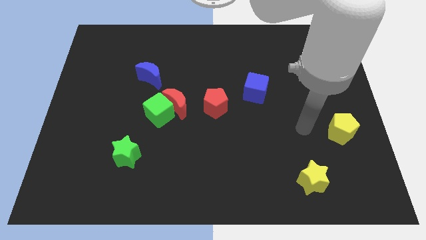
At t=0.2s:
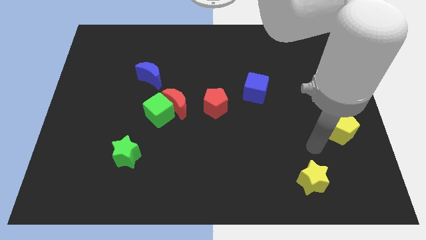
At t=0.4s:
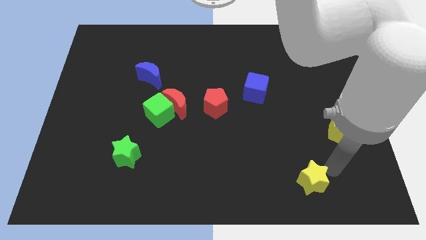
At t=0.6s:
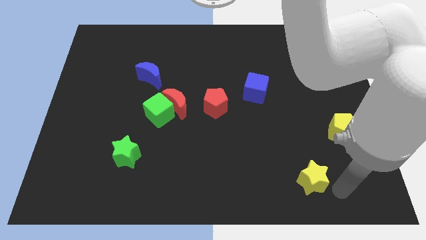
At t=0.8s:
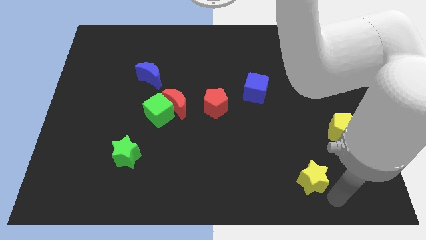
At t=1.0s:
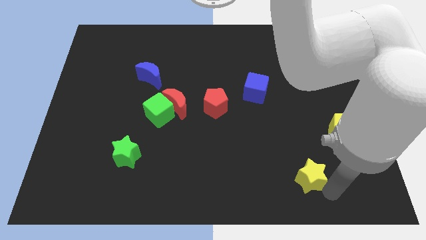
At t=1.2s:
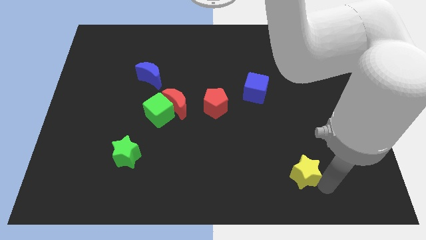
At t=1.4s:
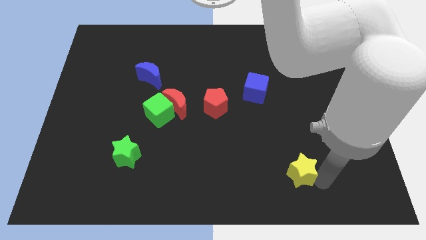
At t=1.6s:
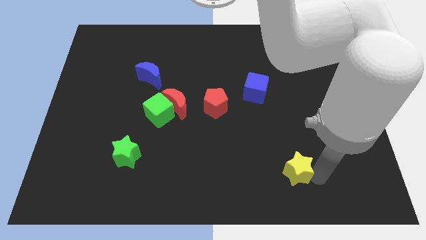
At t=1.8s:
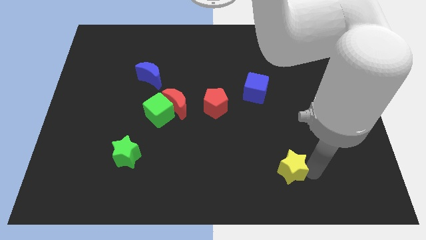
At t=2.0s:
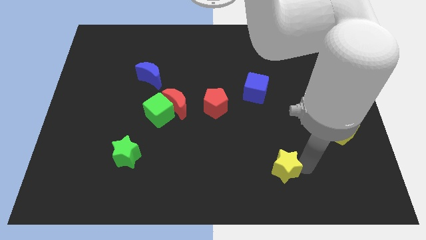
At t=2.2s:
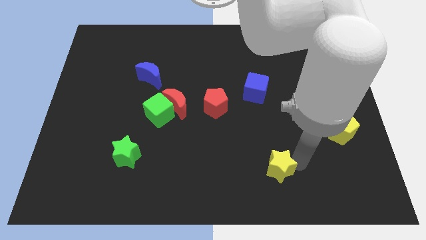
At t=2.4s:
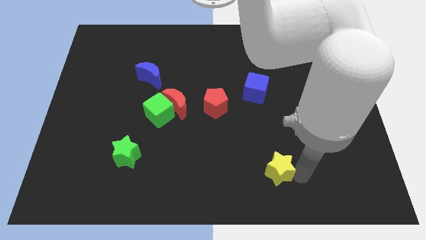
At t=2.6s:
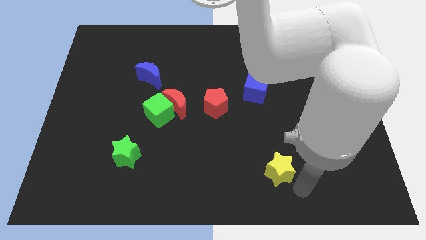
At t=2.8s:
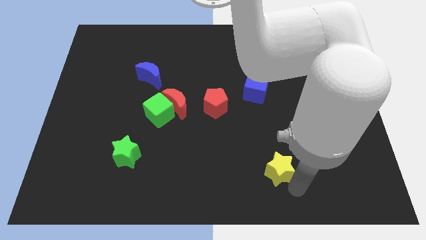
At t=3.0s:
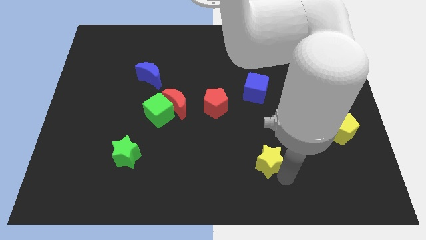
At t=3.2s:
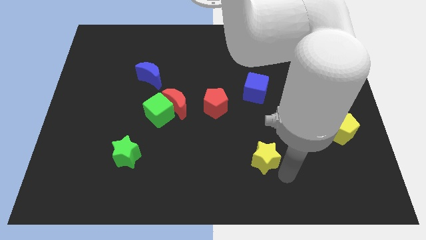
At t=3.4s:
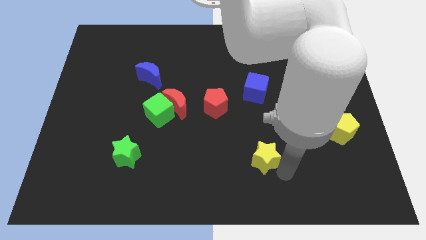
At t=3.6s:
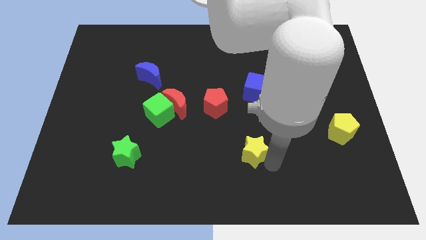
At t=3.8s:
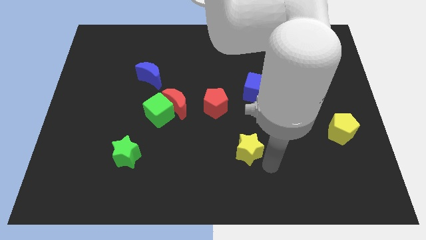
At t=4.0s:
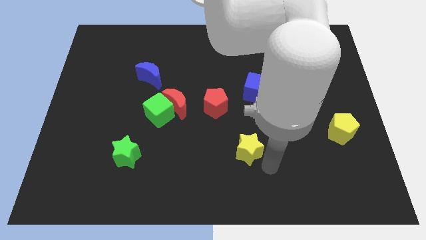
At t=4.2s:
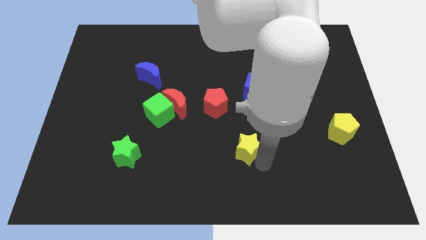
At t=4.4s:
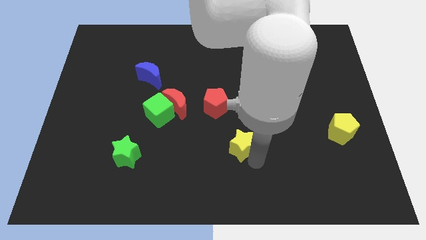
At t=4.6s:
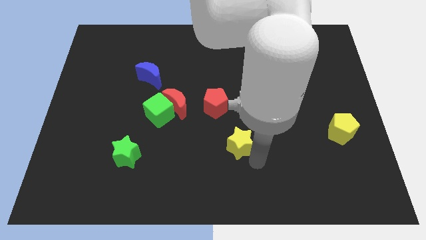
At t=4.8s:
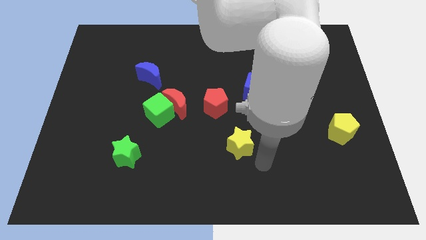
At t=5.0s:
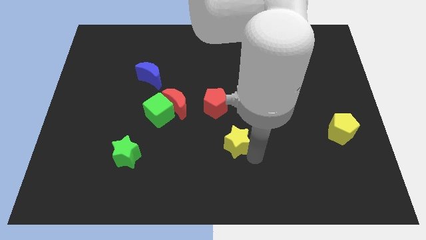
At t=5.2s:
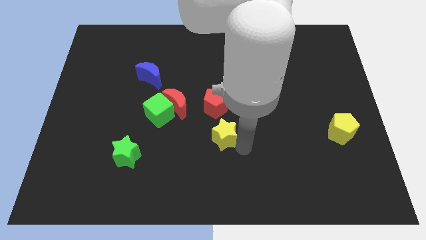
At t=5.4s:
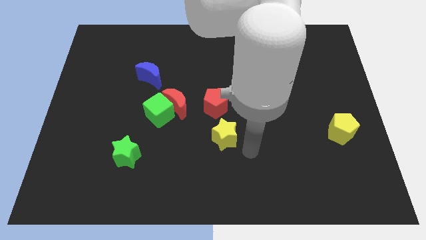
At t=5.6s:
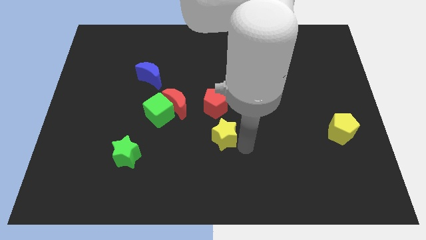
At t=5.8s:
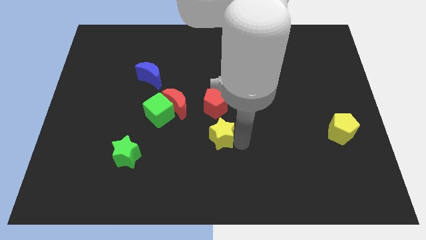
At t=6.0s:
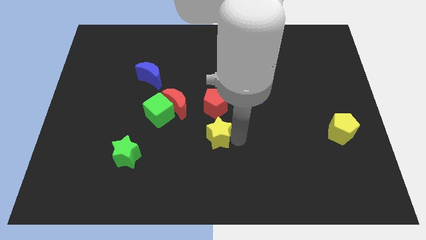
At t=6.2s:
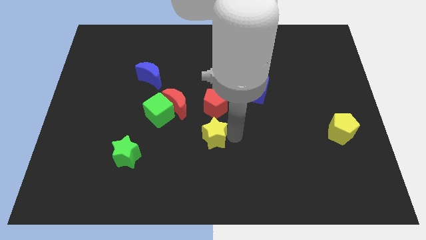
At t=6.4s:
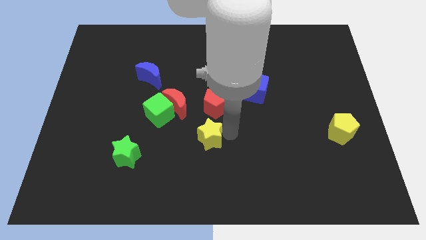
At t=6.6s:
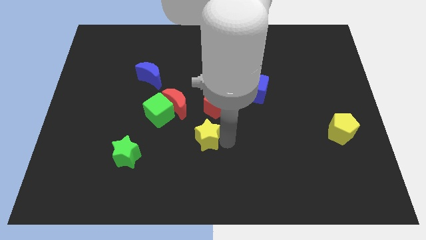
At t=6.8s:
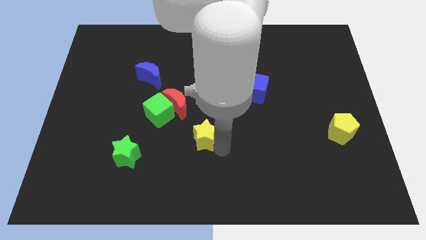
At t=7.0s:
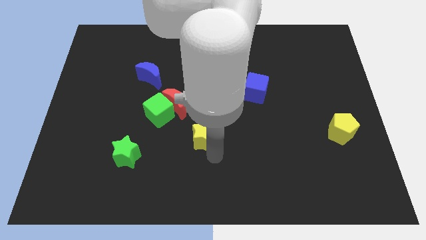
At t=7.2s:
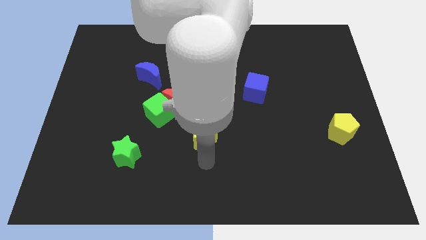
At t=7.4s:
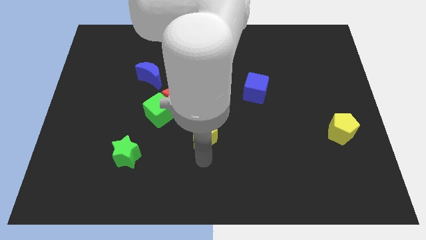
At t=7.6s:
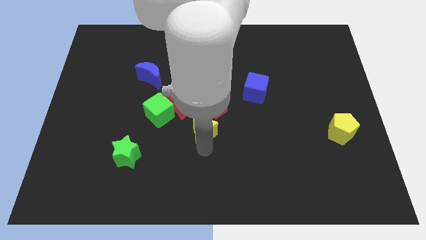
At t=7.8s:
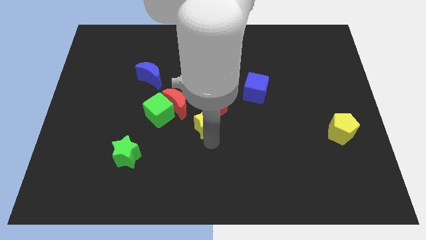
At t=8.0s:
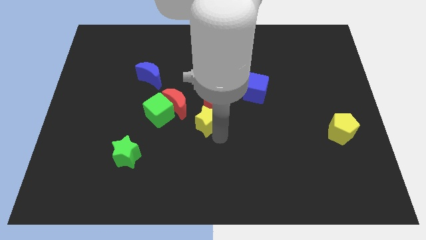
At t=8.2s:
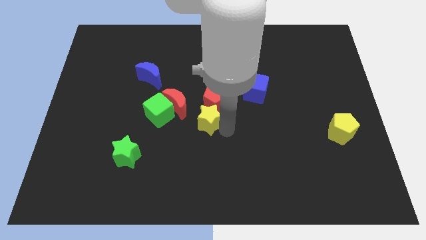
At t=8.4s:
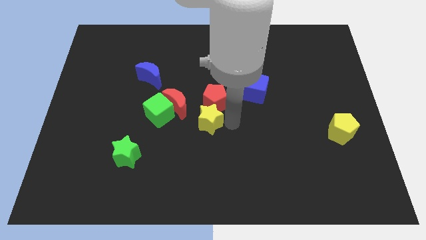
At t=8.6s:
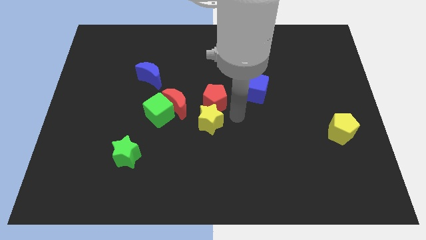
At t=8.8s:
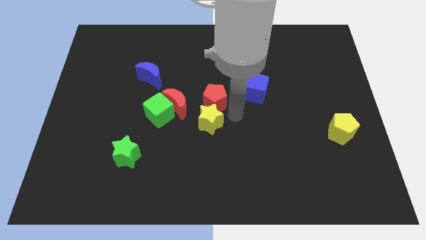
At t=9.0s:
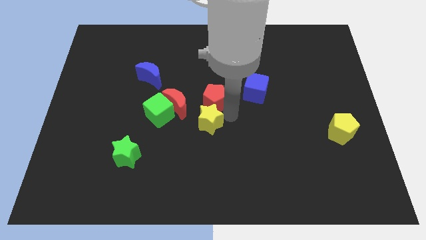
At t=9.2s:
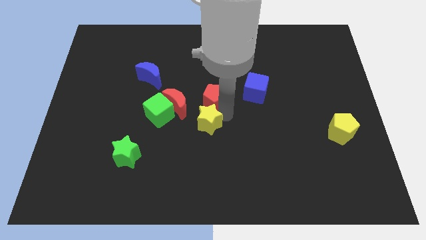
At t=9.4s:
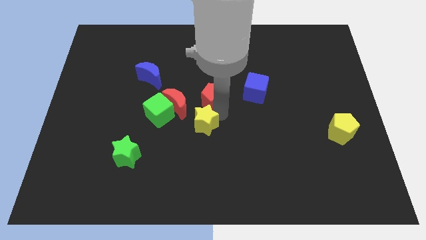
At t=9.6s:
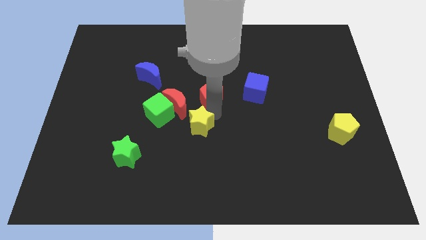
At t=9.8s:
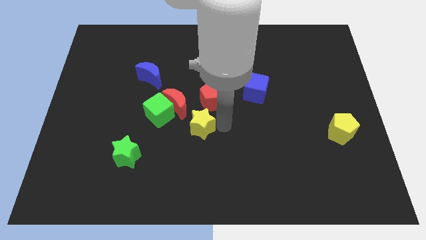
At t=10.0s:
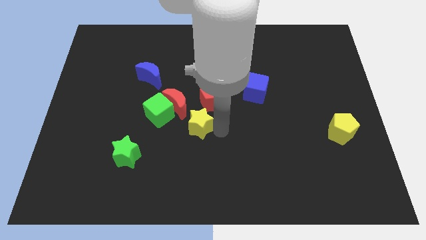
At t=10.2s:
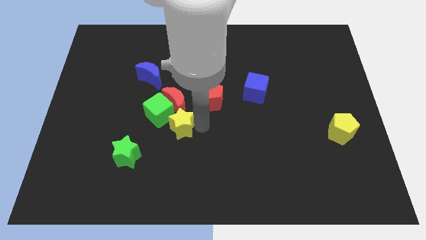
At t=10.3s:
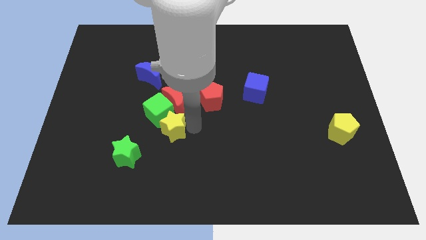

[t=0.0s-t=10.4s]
push the yellow star to the green cube

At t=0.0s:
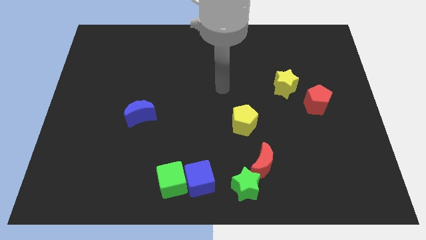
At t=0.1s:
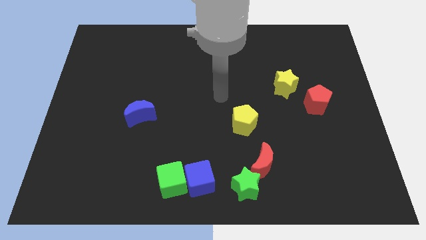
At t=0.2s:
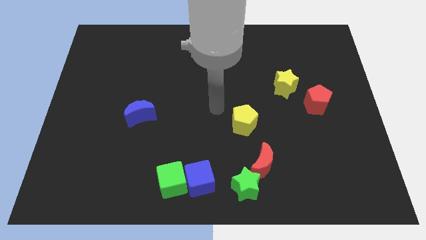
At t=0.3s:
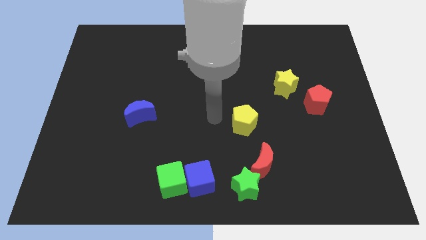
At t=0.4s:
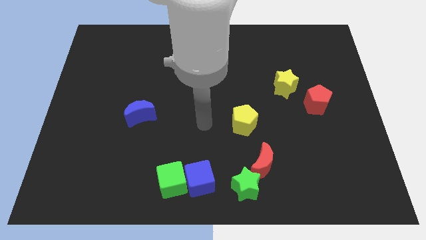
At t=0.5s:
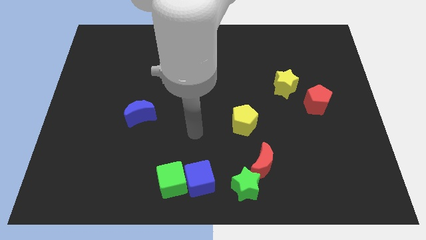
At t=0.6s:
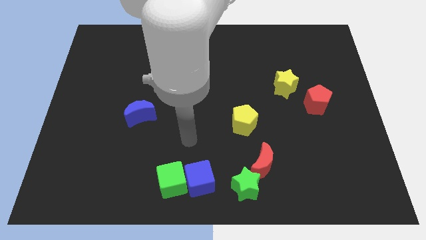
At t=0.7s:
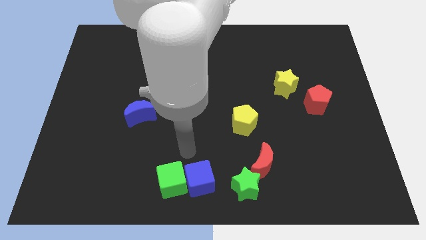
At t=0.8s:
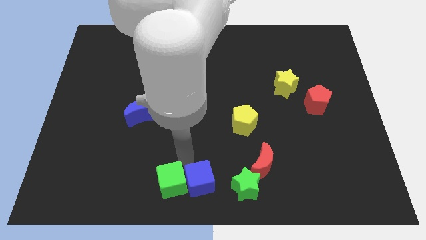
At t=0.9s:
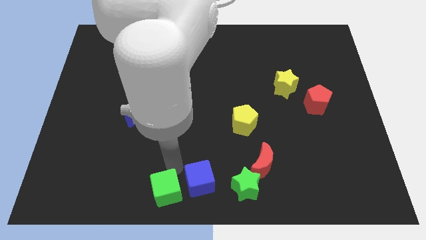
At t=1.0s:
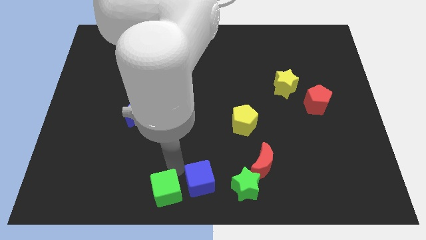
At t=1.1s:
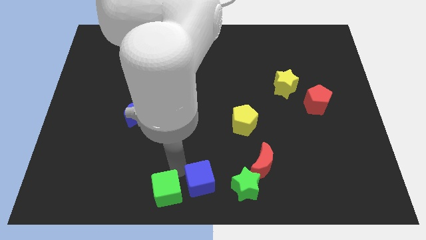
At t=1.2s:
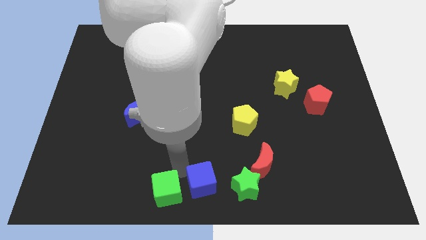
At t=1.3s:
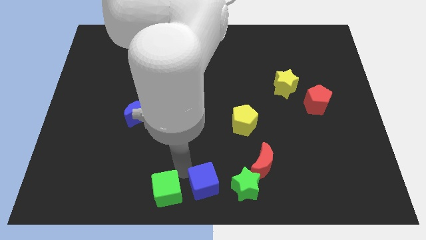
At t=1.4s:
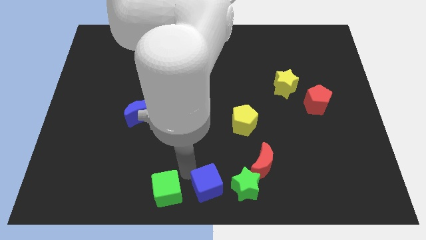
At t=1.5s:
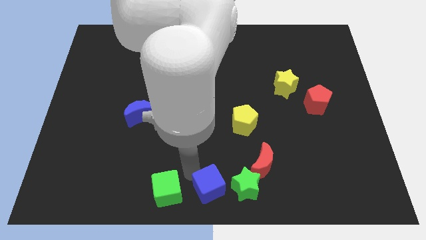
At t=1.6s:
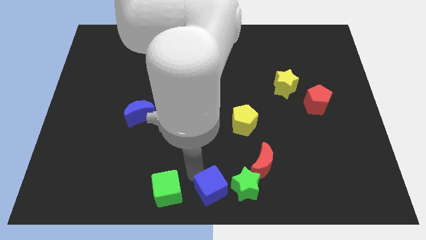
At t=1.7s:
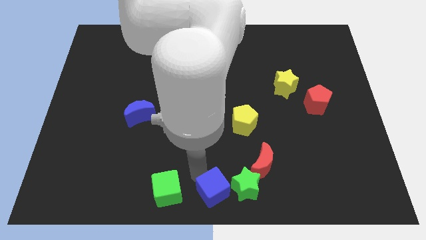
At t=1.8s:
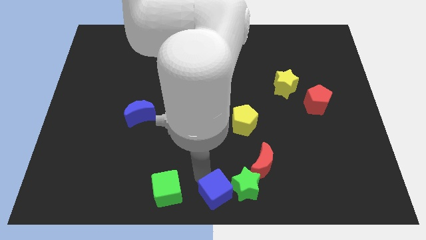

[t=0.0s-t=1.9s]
slide the blue cube to the green star
